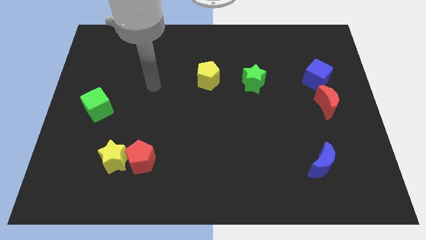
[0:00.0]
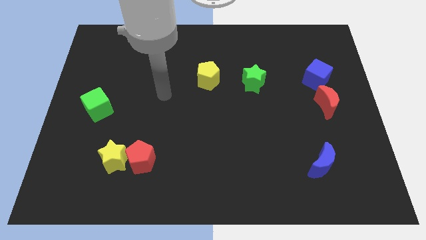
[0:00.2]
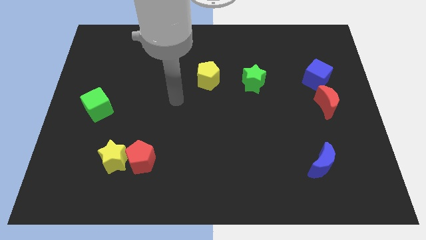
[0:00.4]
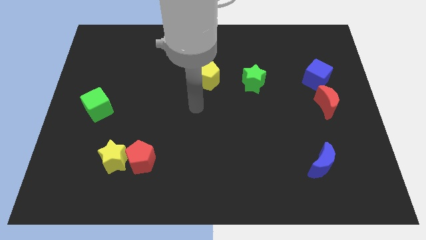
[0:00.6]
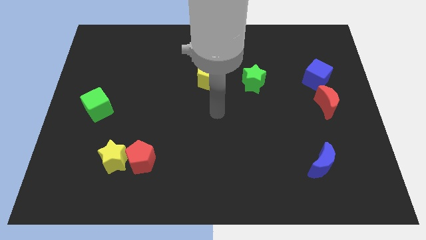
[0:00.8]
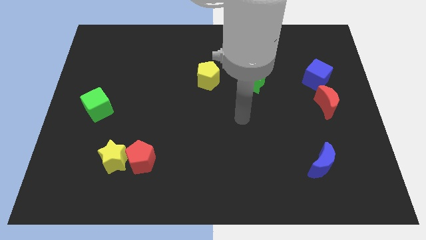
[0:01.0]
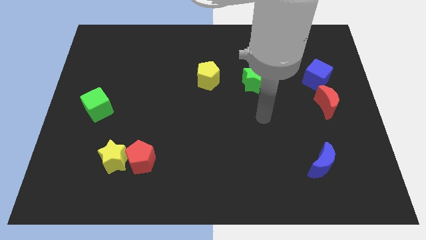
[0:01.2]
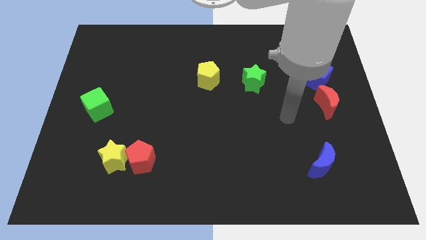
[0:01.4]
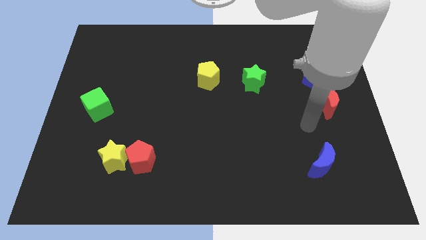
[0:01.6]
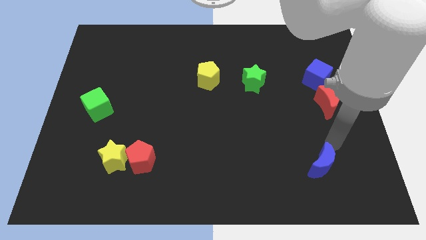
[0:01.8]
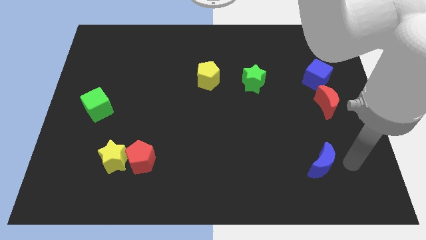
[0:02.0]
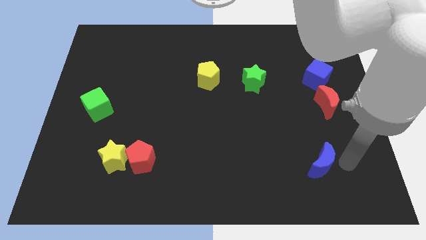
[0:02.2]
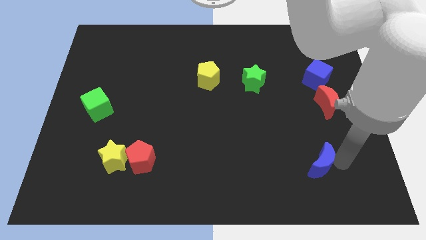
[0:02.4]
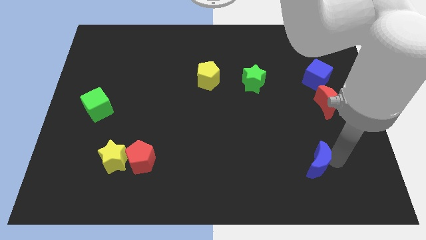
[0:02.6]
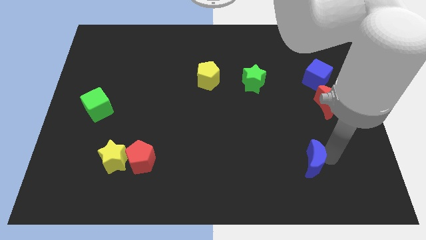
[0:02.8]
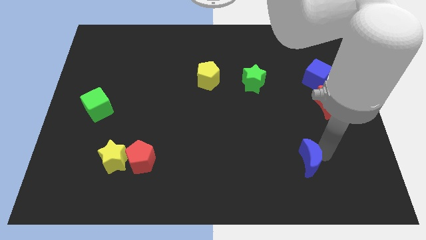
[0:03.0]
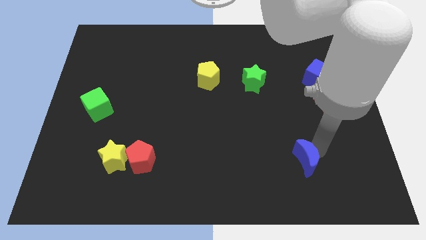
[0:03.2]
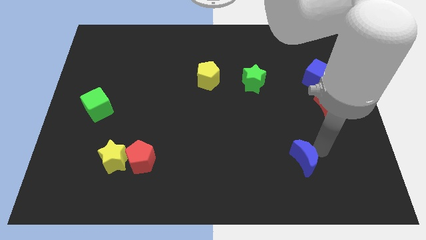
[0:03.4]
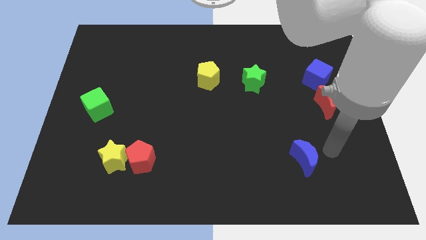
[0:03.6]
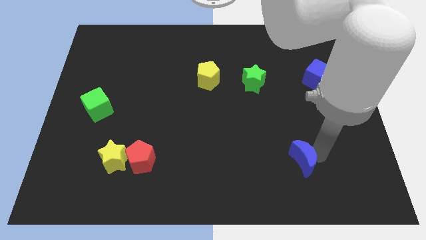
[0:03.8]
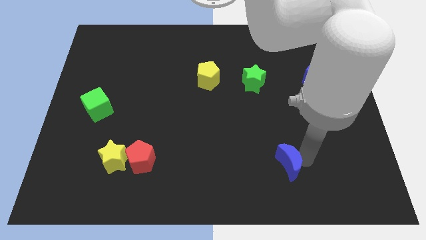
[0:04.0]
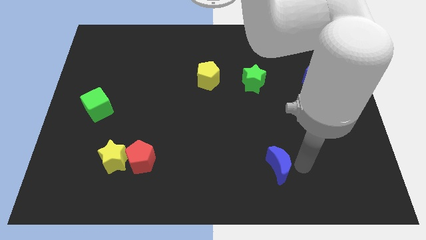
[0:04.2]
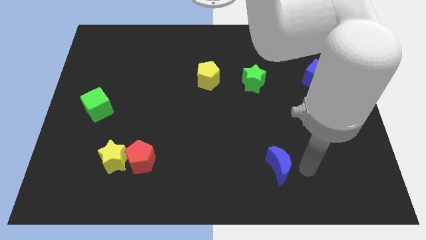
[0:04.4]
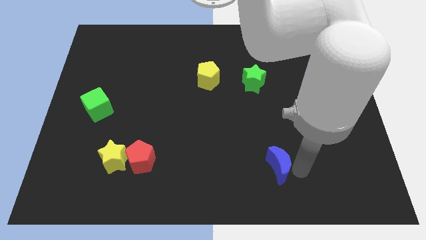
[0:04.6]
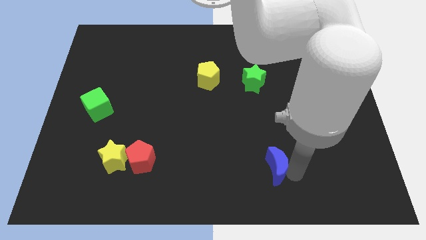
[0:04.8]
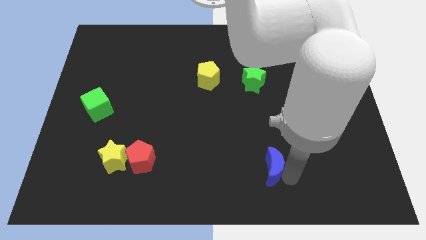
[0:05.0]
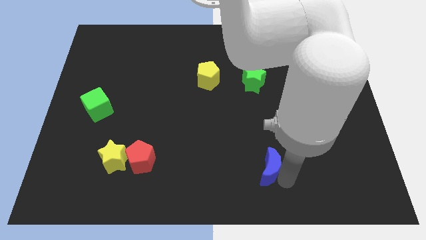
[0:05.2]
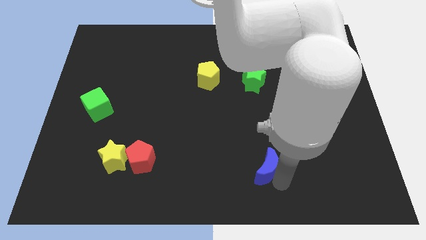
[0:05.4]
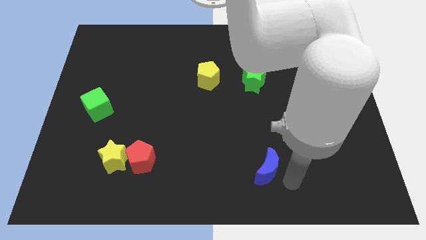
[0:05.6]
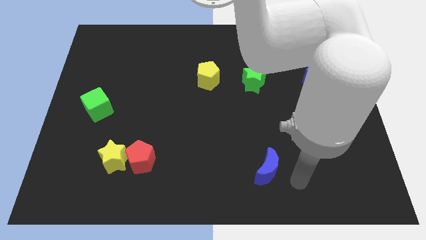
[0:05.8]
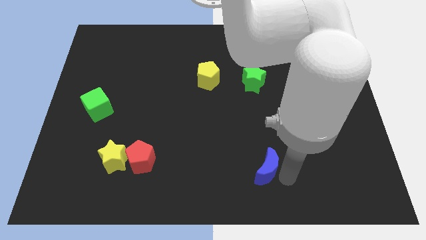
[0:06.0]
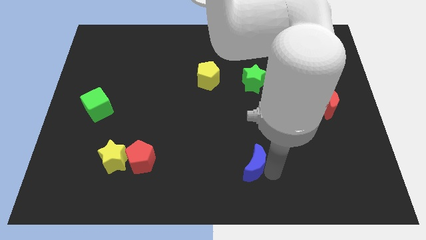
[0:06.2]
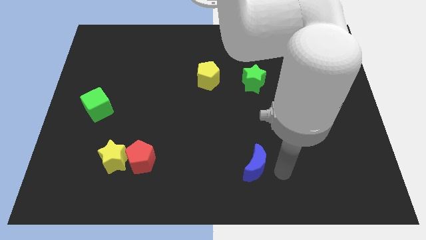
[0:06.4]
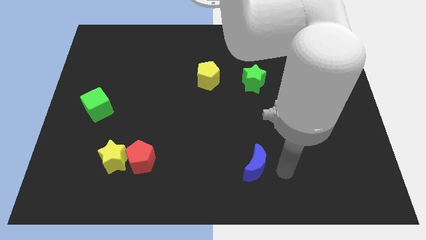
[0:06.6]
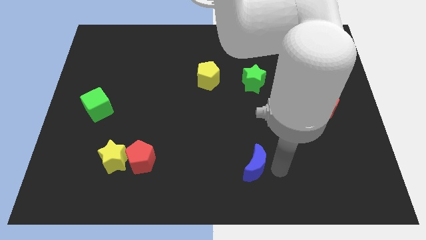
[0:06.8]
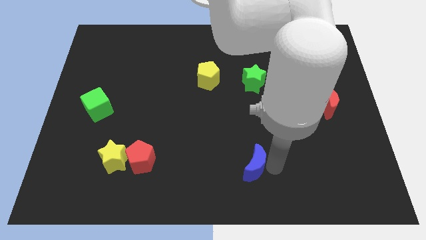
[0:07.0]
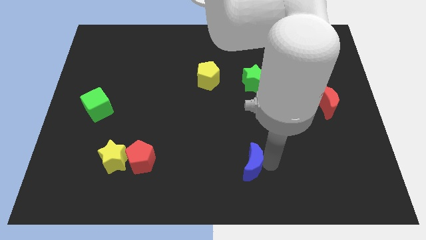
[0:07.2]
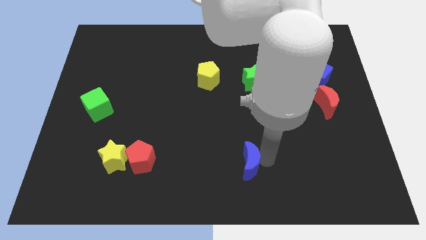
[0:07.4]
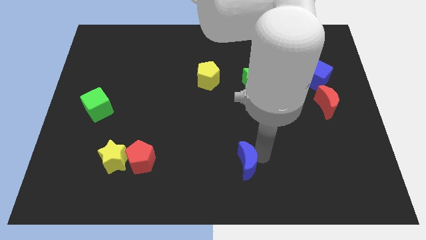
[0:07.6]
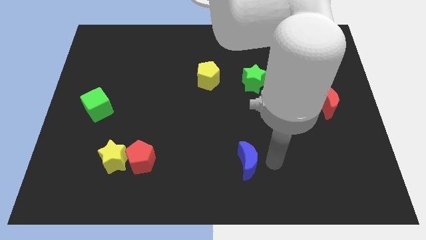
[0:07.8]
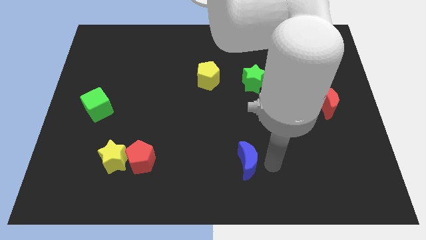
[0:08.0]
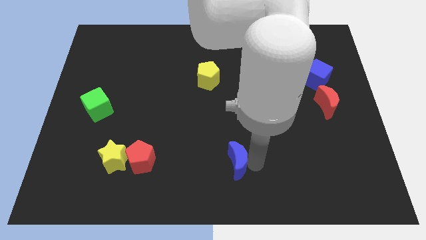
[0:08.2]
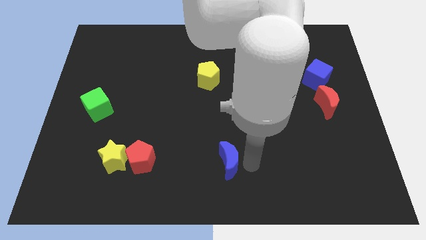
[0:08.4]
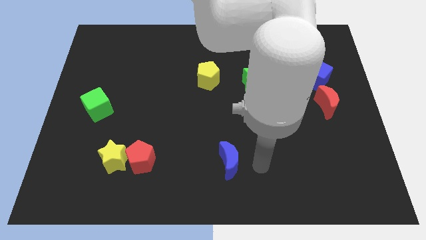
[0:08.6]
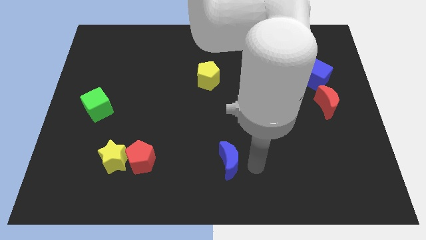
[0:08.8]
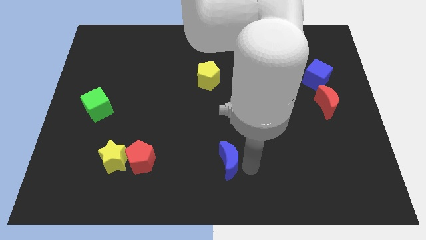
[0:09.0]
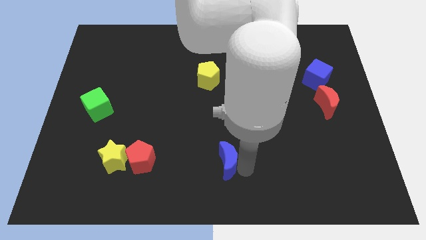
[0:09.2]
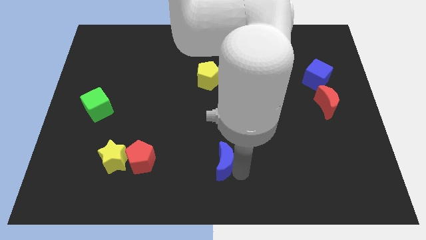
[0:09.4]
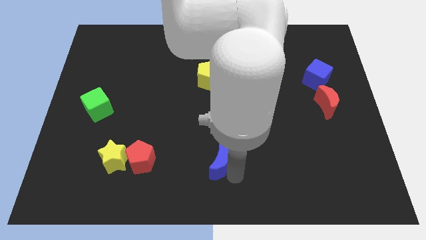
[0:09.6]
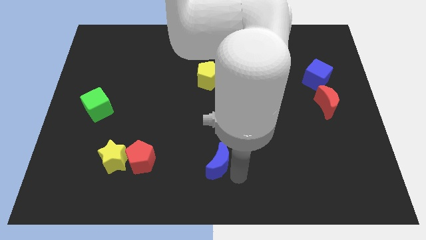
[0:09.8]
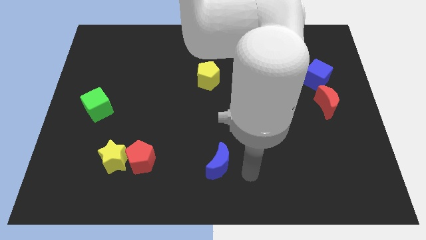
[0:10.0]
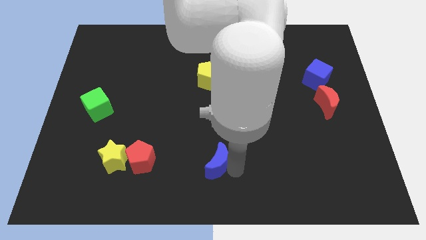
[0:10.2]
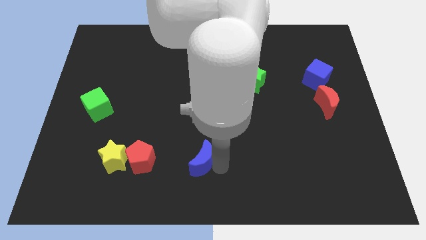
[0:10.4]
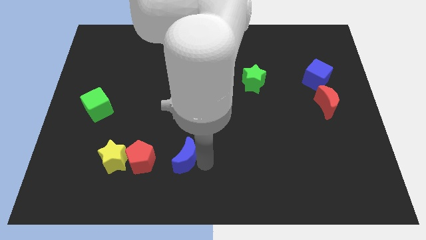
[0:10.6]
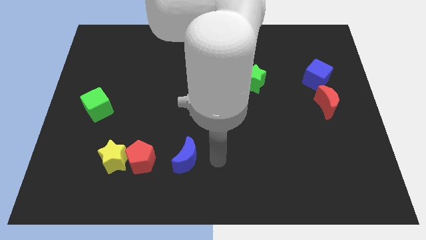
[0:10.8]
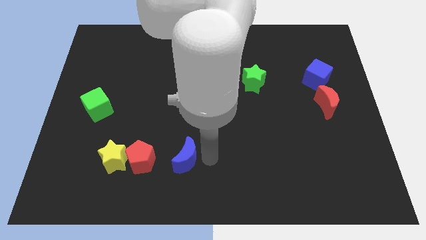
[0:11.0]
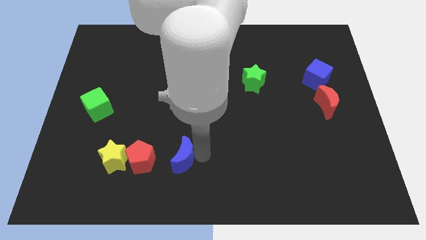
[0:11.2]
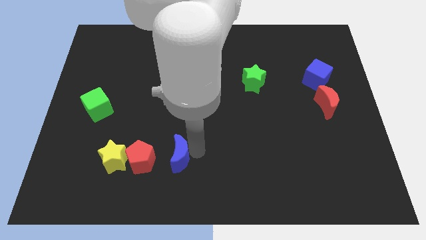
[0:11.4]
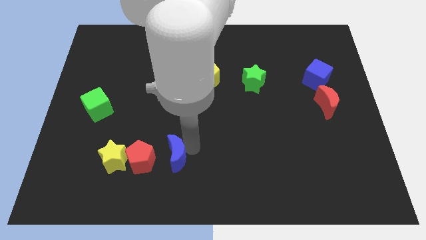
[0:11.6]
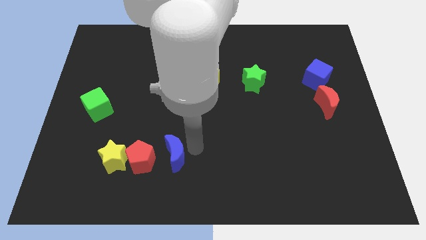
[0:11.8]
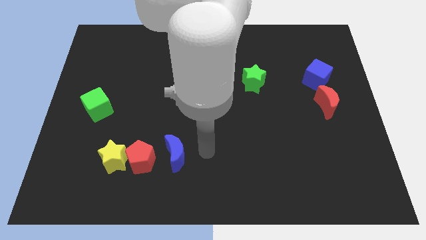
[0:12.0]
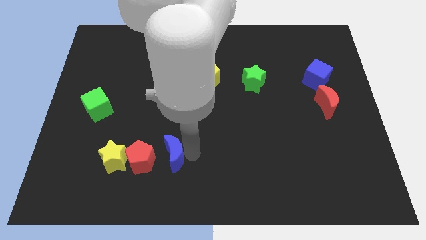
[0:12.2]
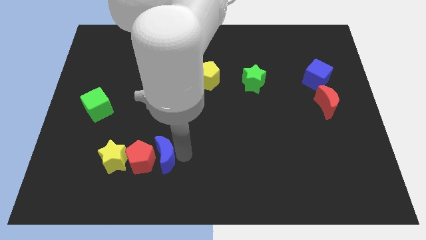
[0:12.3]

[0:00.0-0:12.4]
push the blue moon close to the red pentagon

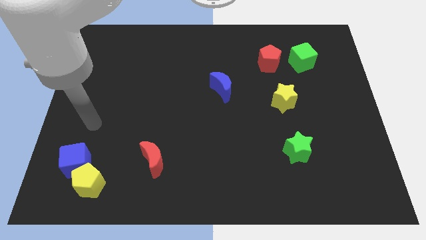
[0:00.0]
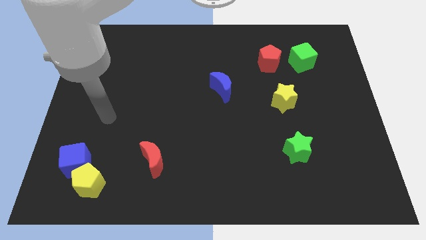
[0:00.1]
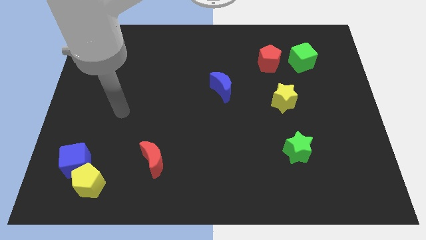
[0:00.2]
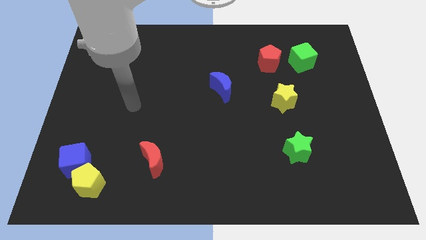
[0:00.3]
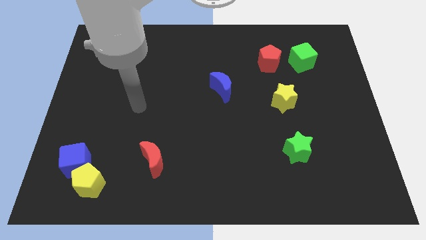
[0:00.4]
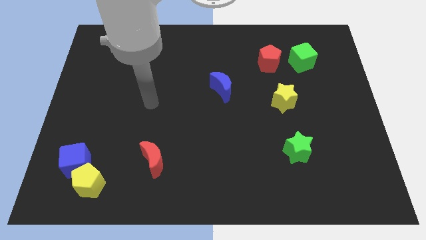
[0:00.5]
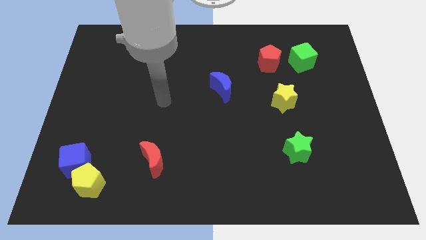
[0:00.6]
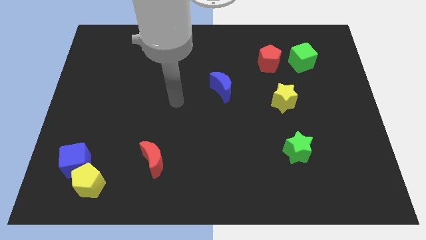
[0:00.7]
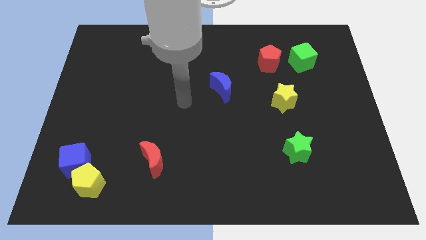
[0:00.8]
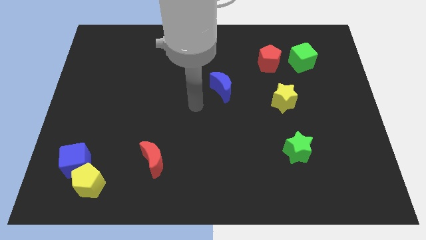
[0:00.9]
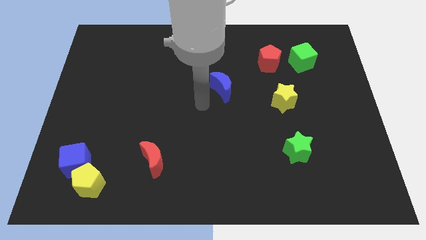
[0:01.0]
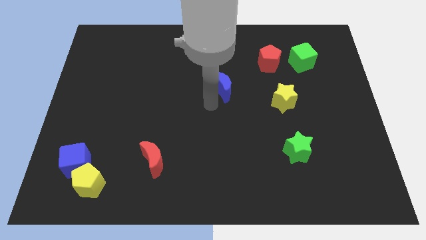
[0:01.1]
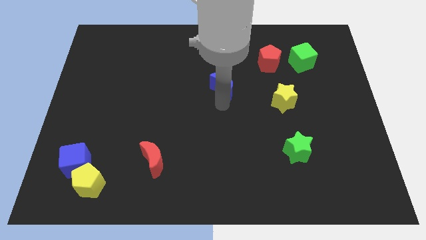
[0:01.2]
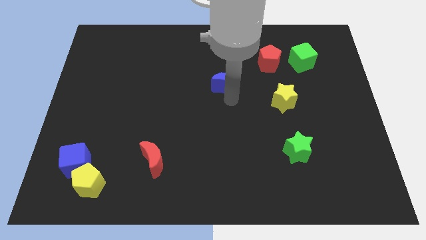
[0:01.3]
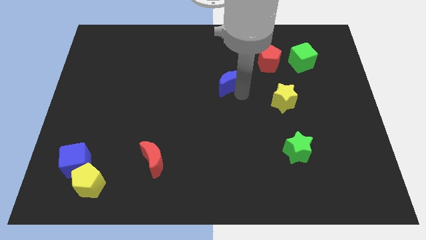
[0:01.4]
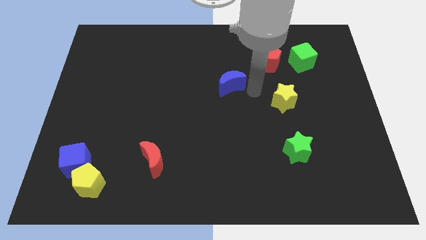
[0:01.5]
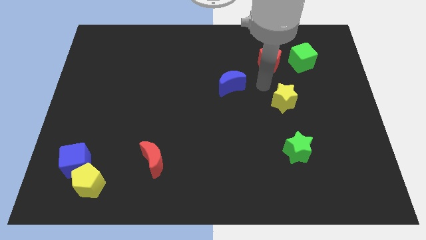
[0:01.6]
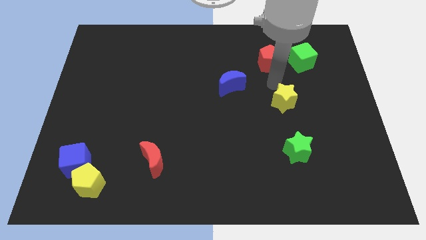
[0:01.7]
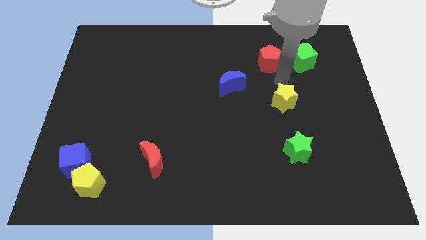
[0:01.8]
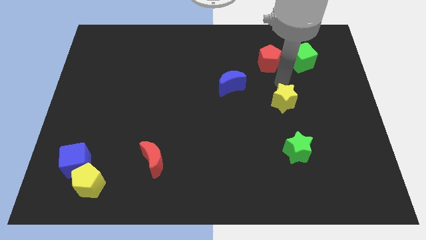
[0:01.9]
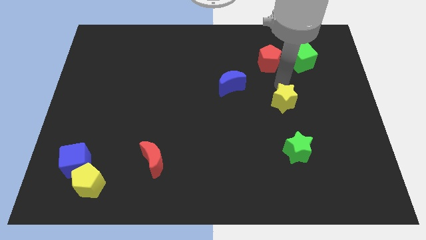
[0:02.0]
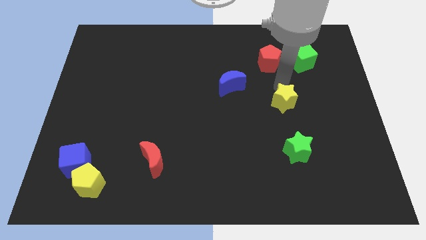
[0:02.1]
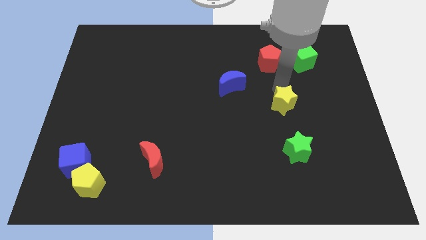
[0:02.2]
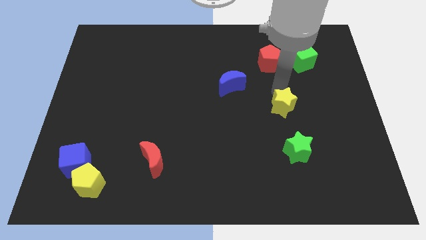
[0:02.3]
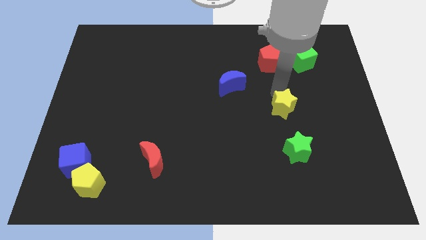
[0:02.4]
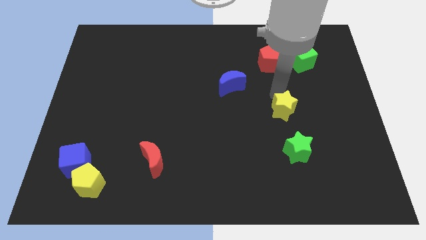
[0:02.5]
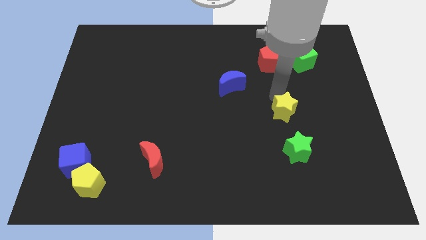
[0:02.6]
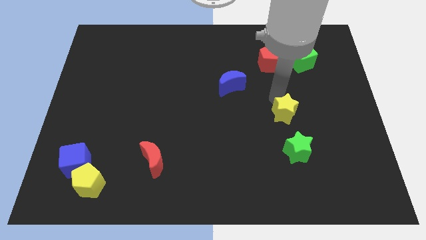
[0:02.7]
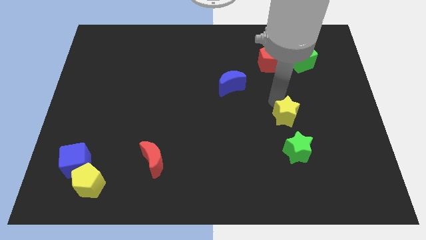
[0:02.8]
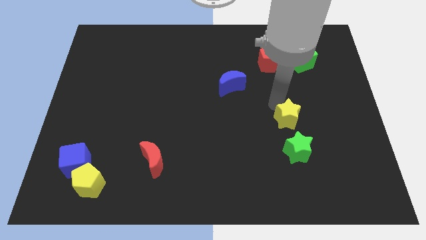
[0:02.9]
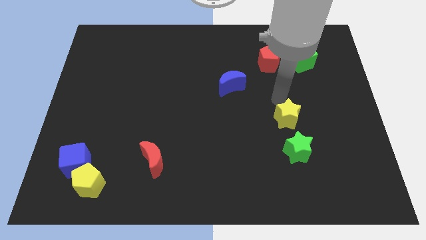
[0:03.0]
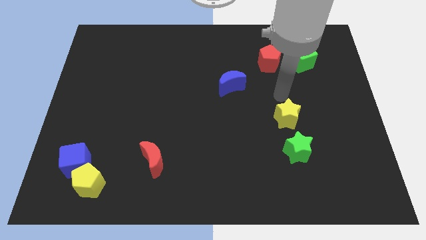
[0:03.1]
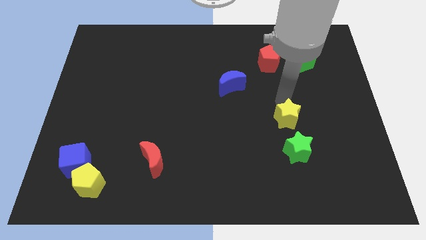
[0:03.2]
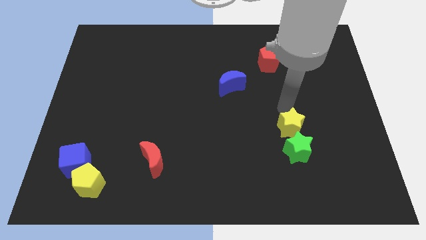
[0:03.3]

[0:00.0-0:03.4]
put the yellow star next to the green star
